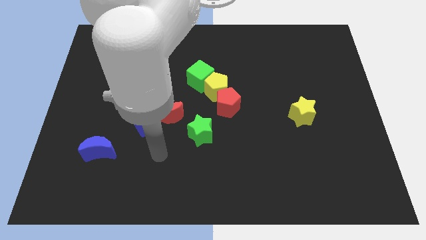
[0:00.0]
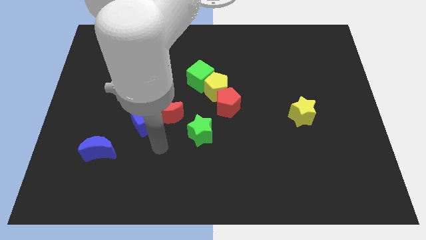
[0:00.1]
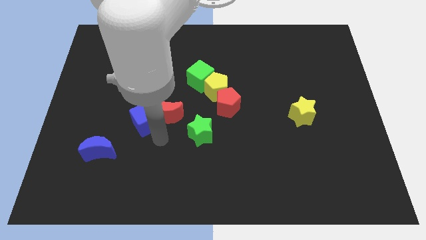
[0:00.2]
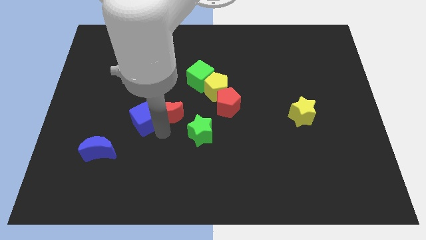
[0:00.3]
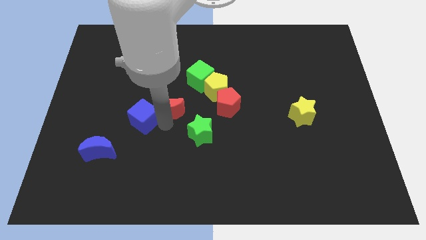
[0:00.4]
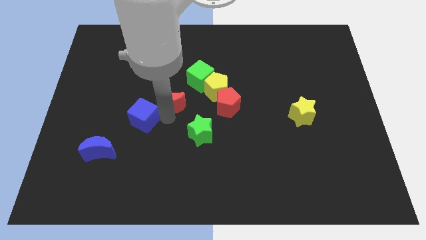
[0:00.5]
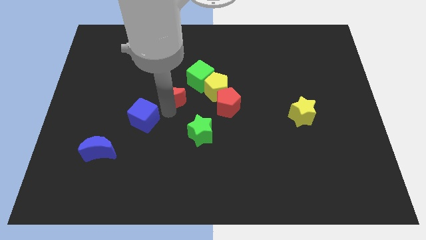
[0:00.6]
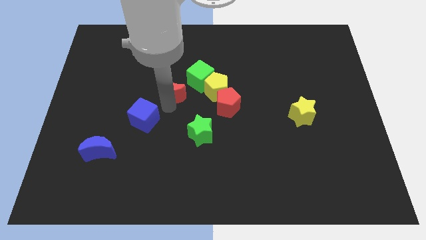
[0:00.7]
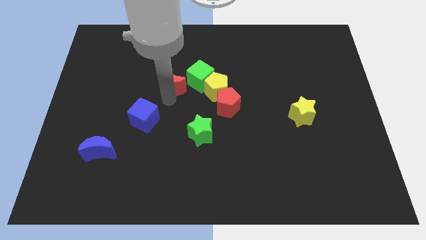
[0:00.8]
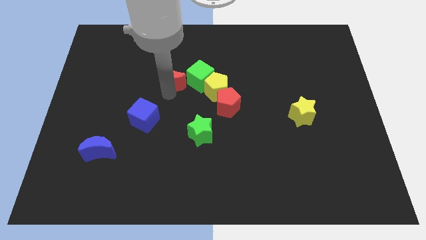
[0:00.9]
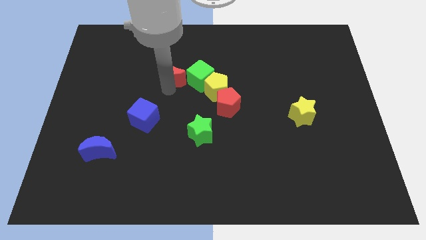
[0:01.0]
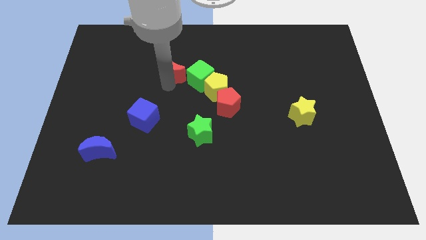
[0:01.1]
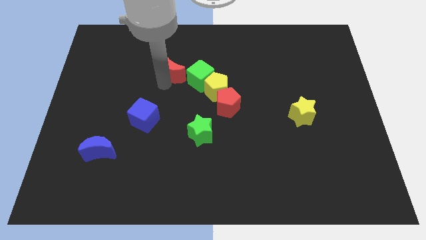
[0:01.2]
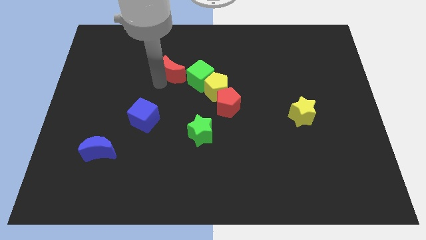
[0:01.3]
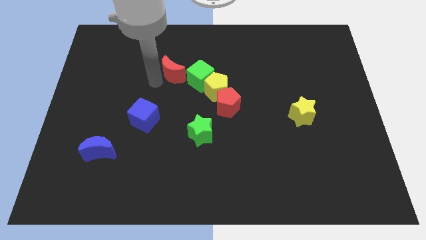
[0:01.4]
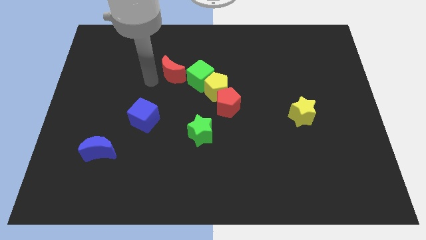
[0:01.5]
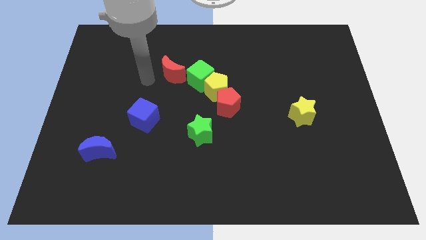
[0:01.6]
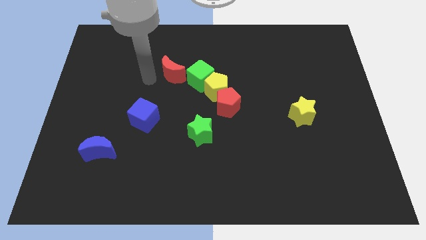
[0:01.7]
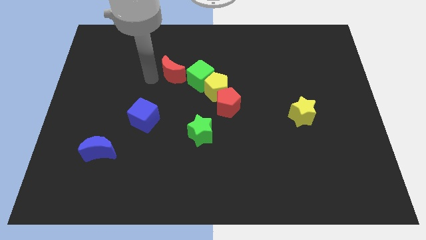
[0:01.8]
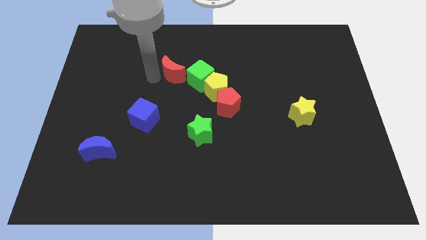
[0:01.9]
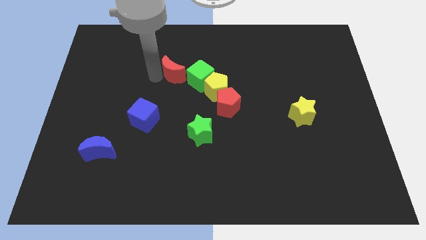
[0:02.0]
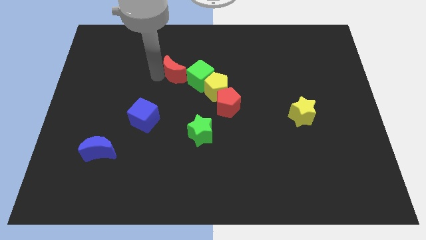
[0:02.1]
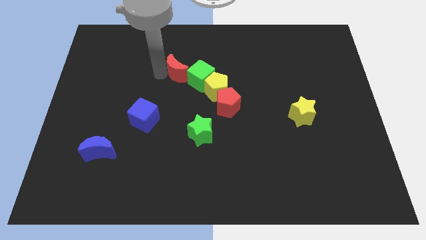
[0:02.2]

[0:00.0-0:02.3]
slightly push the red moon up and then to the right

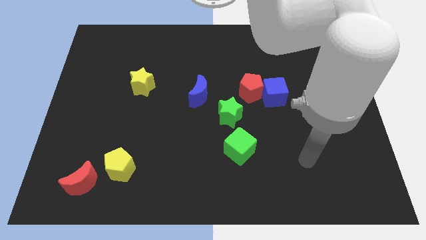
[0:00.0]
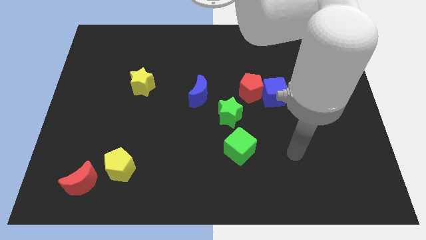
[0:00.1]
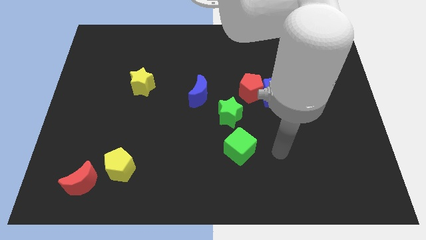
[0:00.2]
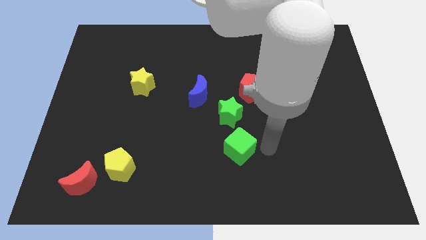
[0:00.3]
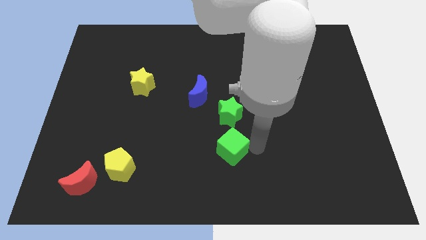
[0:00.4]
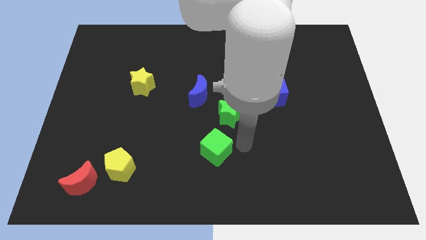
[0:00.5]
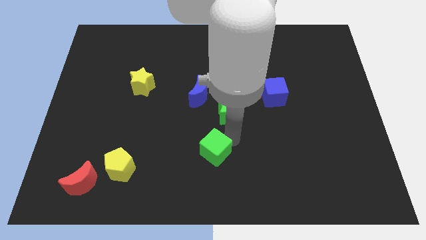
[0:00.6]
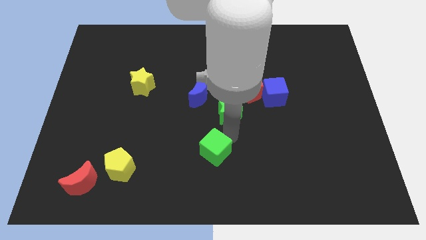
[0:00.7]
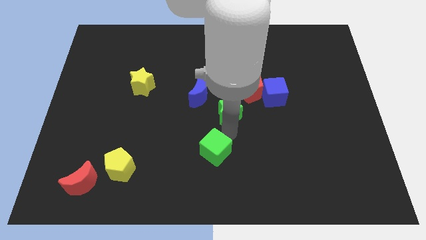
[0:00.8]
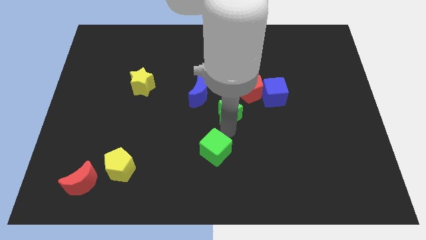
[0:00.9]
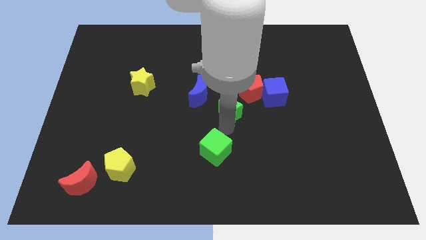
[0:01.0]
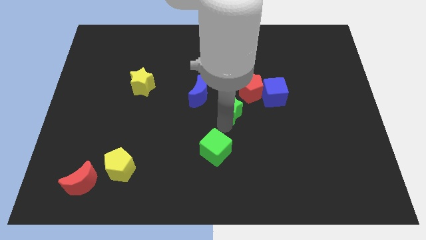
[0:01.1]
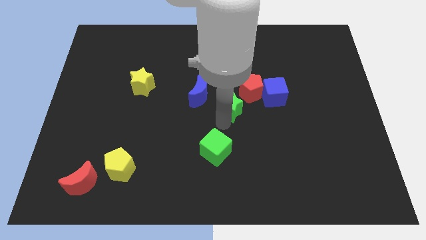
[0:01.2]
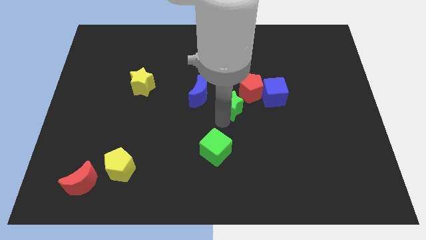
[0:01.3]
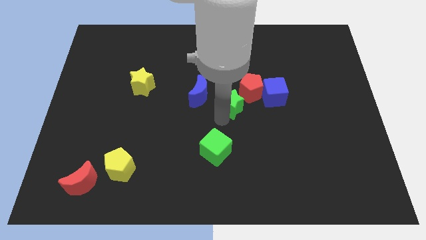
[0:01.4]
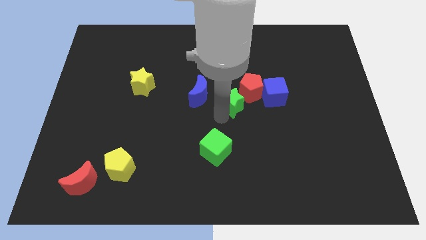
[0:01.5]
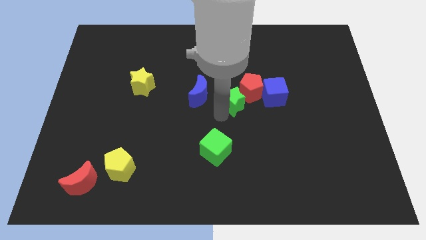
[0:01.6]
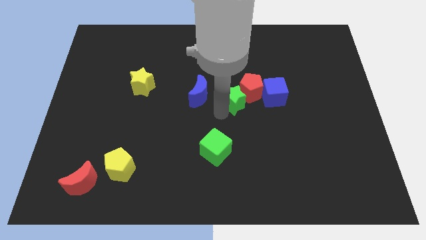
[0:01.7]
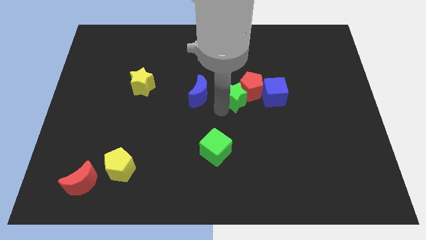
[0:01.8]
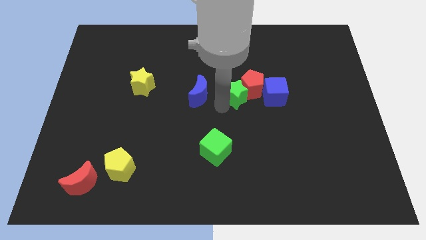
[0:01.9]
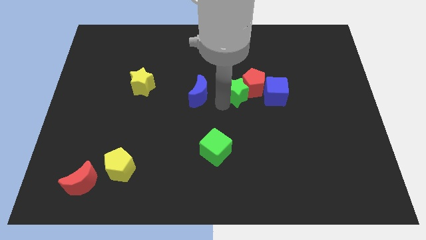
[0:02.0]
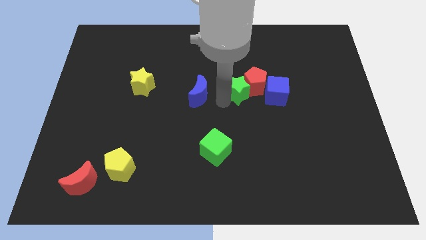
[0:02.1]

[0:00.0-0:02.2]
move the green star slightly up

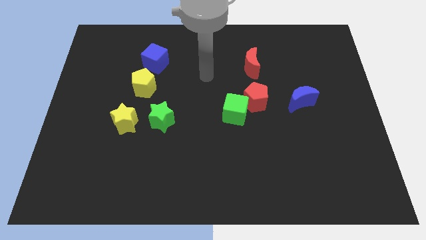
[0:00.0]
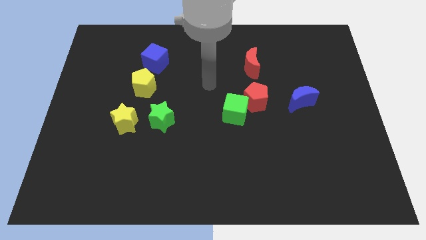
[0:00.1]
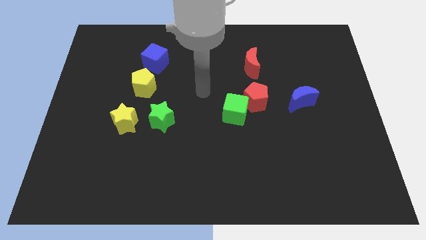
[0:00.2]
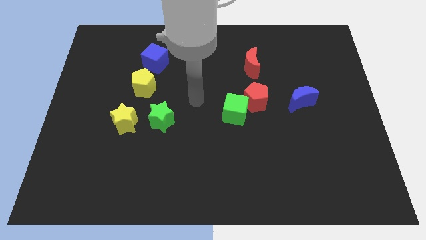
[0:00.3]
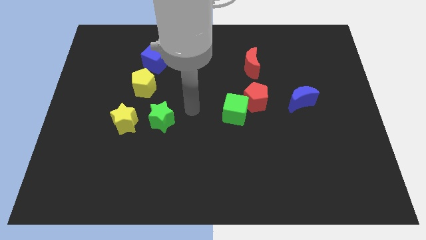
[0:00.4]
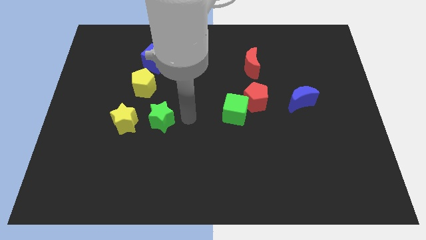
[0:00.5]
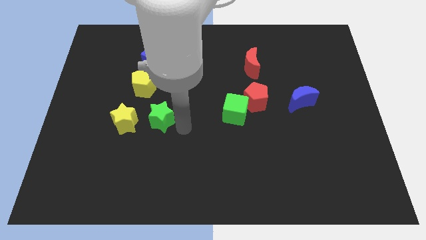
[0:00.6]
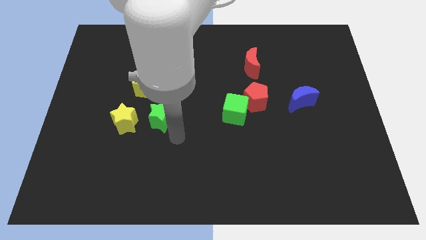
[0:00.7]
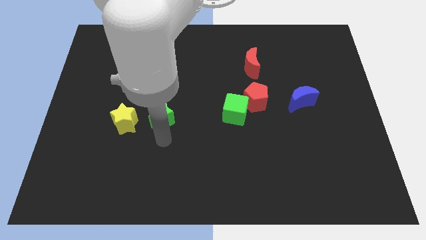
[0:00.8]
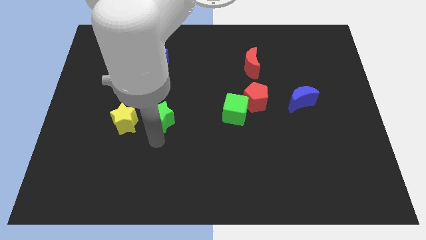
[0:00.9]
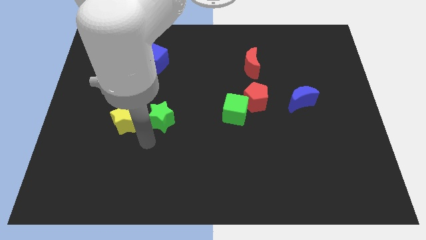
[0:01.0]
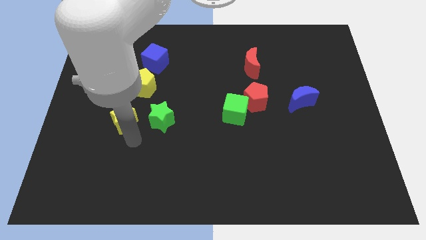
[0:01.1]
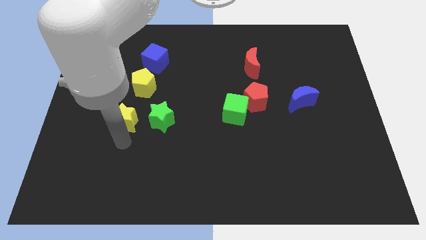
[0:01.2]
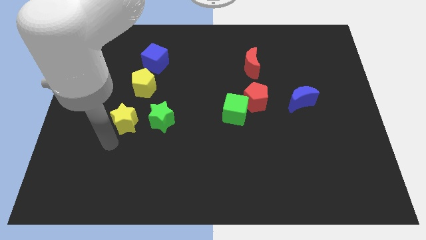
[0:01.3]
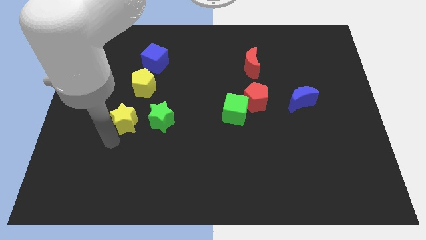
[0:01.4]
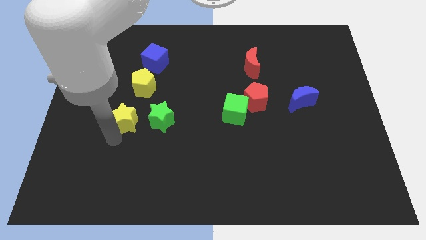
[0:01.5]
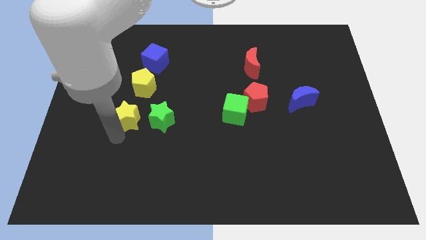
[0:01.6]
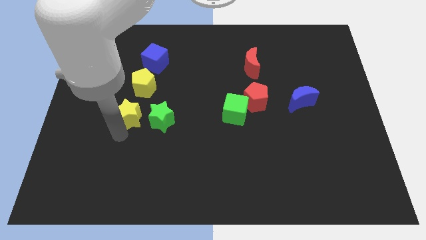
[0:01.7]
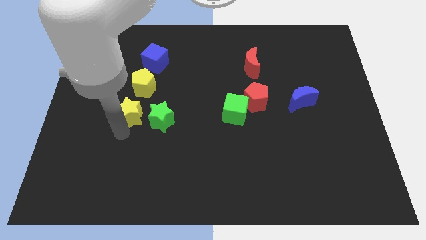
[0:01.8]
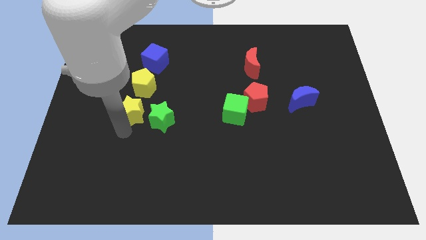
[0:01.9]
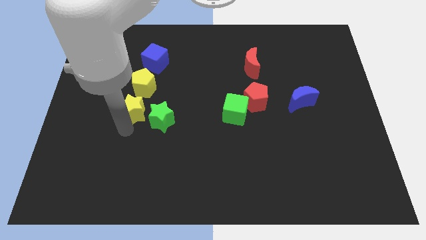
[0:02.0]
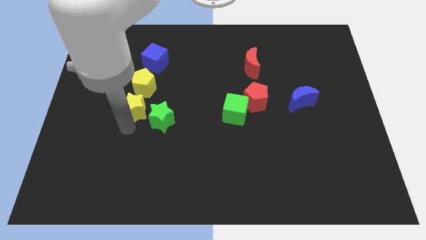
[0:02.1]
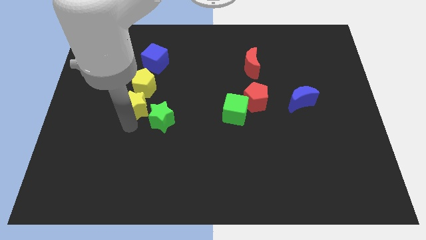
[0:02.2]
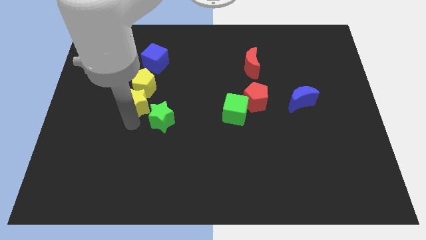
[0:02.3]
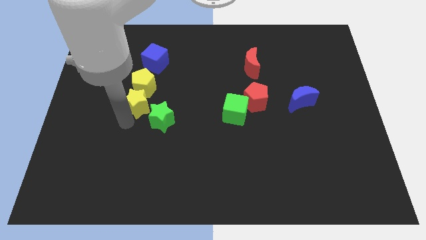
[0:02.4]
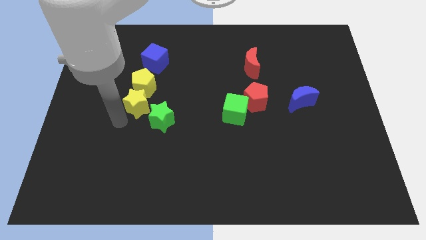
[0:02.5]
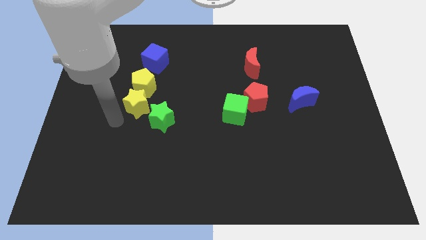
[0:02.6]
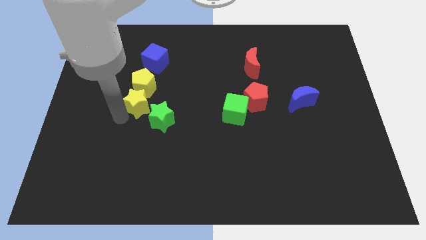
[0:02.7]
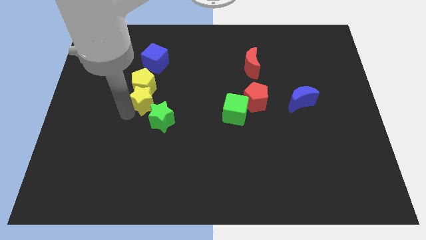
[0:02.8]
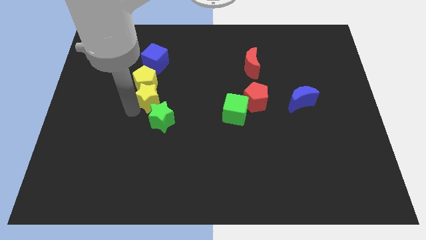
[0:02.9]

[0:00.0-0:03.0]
slightly push the yellow star diagonally up and to the right

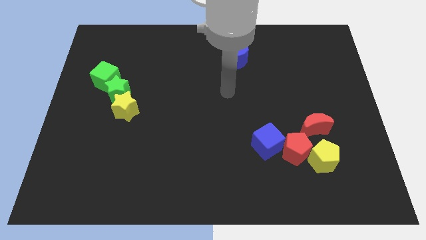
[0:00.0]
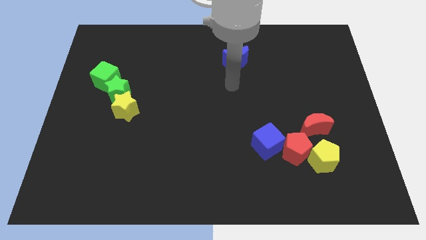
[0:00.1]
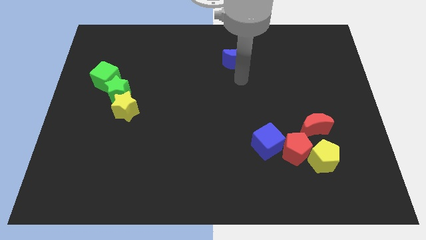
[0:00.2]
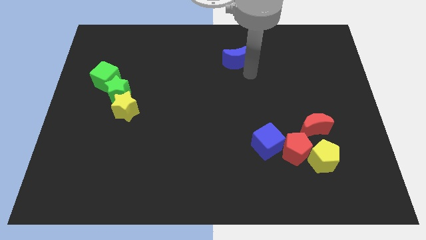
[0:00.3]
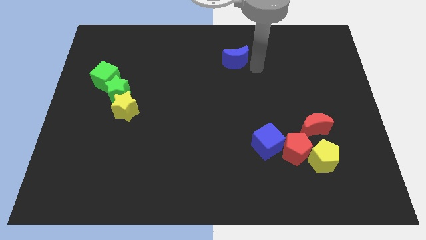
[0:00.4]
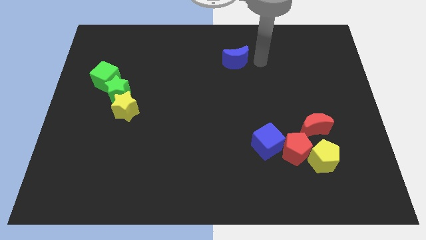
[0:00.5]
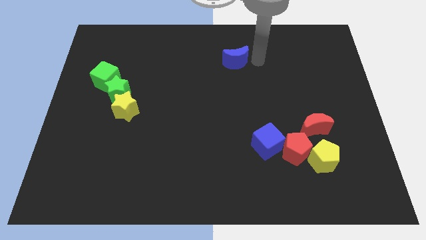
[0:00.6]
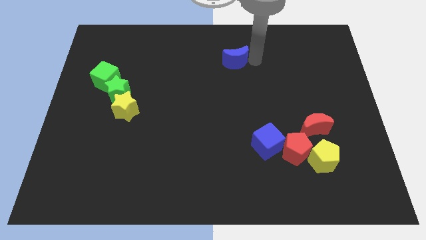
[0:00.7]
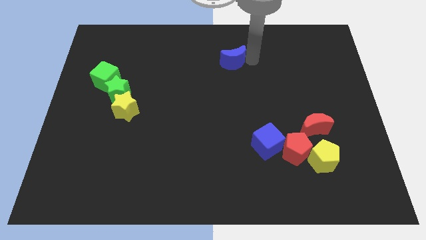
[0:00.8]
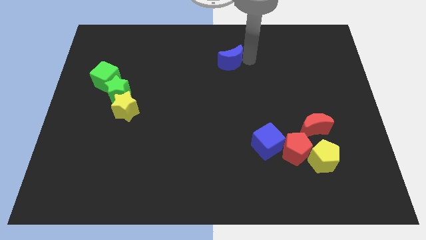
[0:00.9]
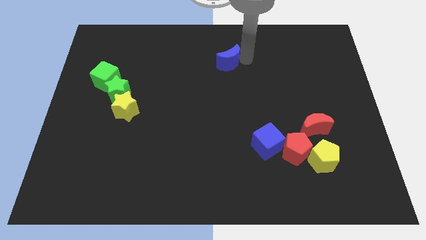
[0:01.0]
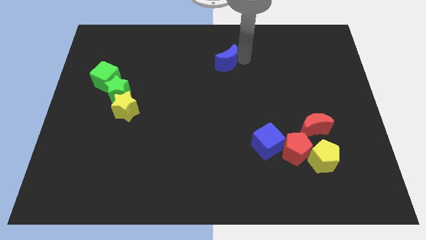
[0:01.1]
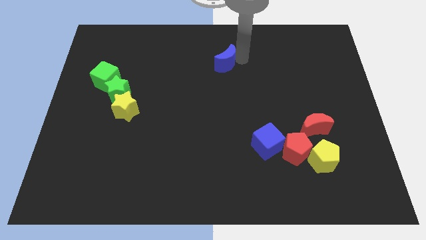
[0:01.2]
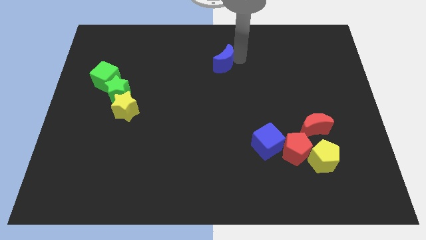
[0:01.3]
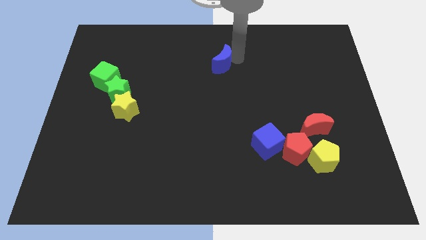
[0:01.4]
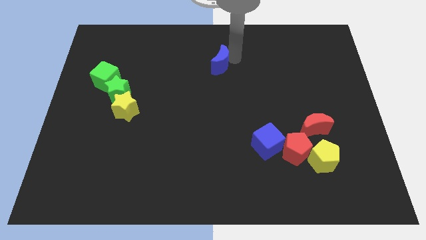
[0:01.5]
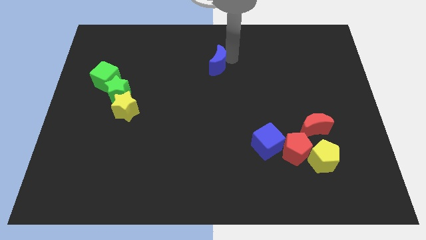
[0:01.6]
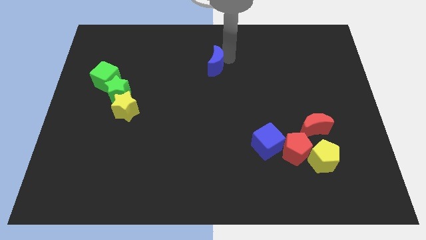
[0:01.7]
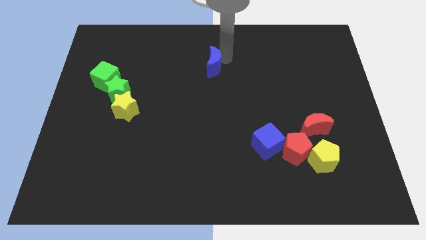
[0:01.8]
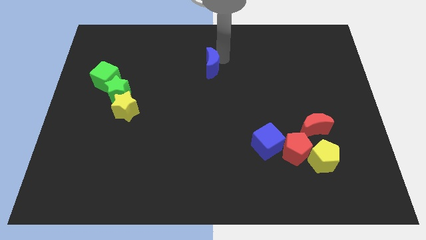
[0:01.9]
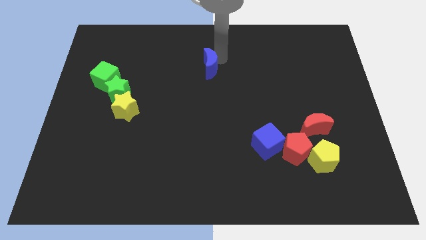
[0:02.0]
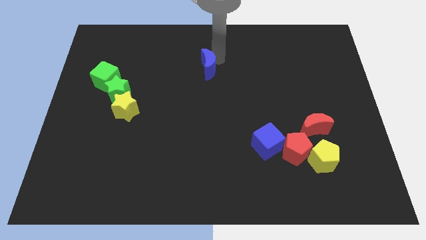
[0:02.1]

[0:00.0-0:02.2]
slide the blue moon to the left somewhat
